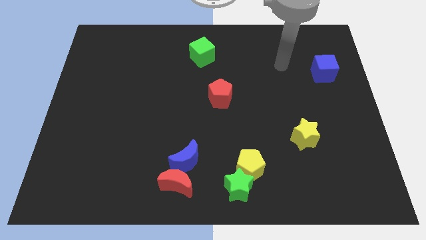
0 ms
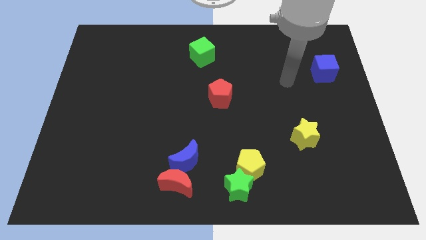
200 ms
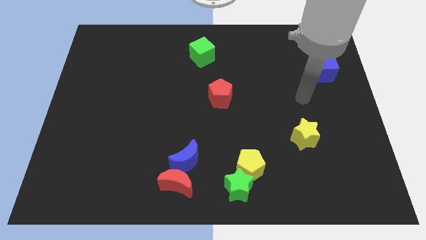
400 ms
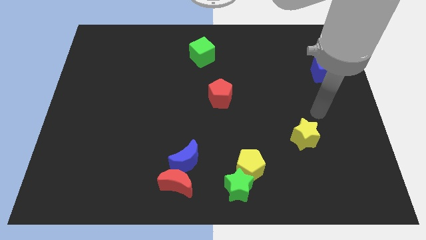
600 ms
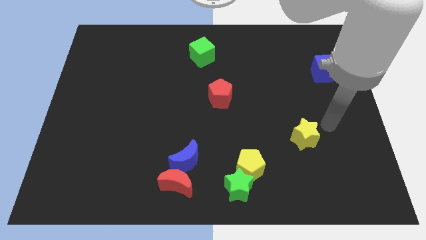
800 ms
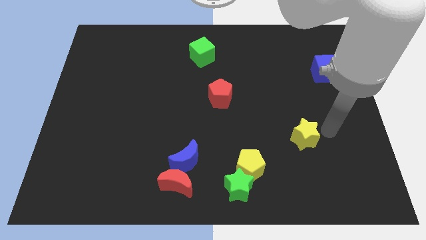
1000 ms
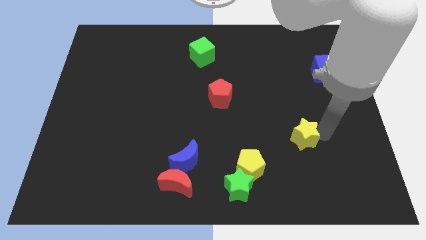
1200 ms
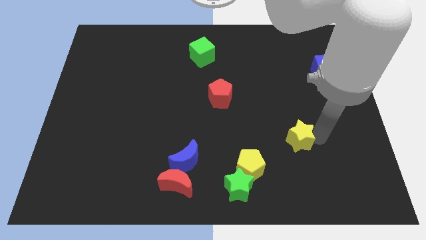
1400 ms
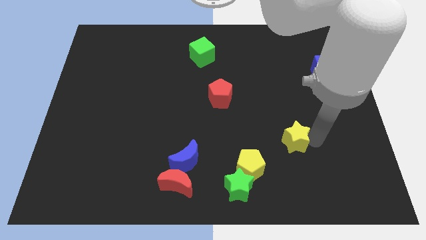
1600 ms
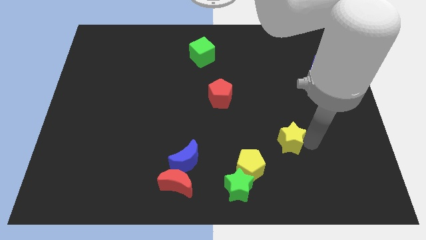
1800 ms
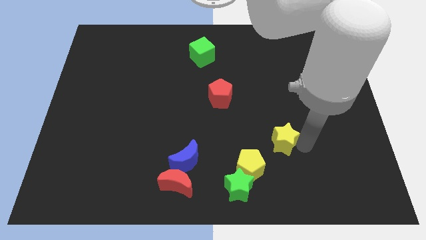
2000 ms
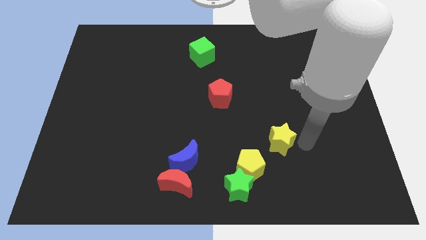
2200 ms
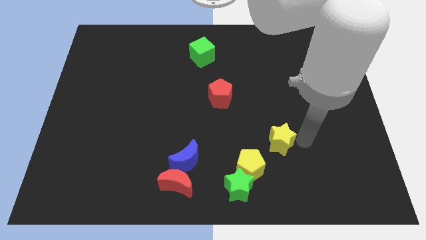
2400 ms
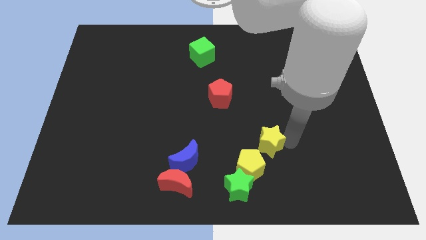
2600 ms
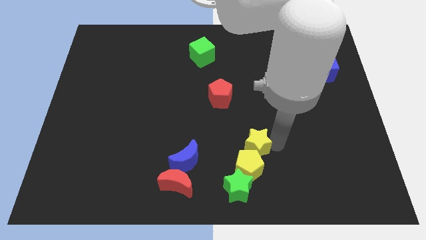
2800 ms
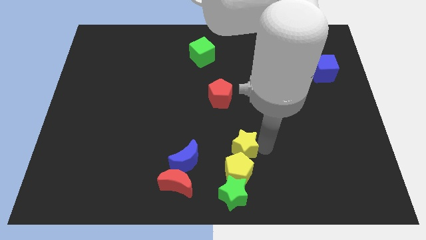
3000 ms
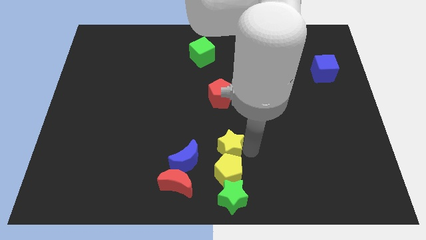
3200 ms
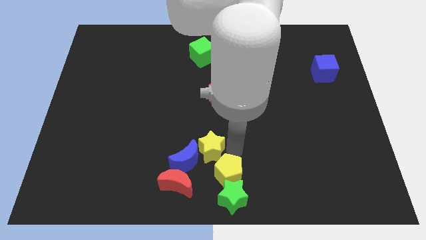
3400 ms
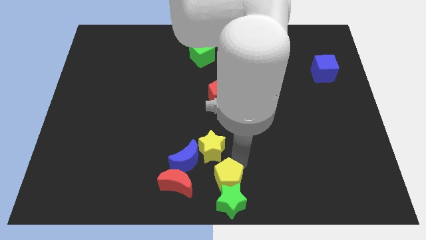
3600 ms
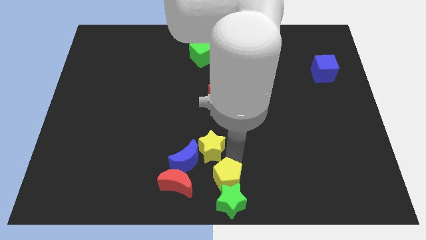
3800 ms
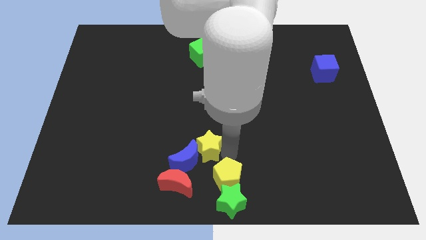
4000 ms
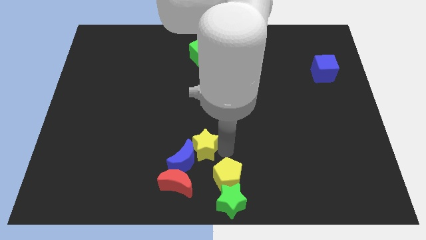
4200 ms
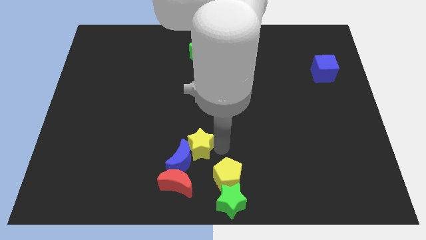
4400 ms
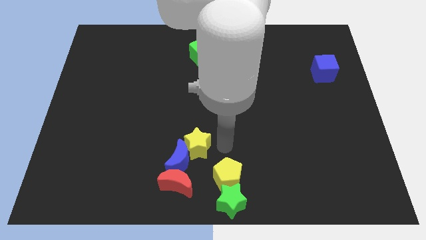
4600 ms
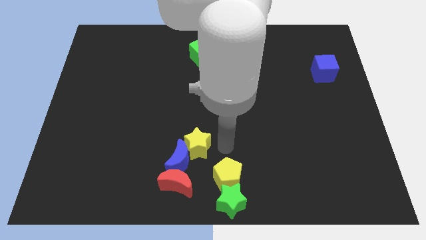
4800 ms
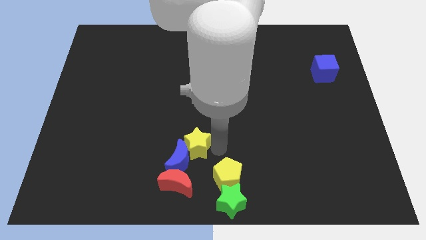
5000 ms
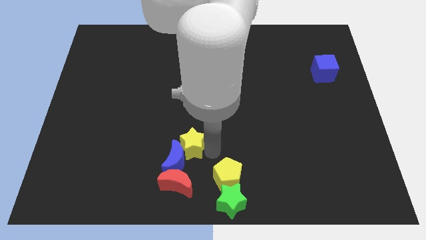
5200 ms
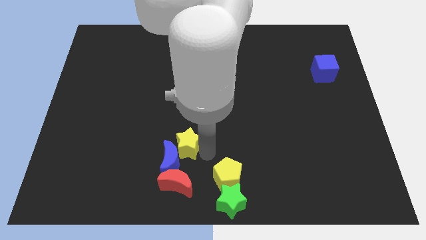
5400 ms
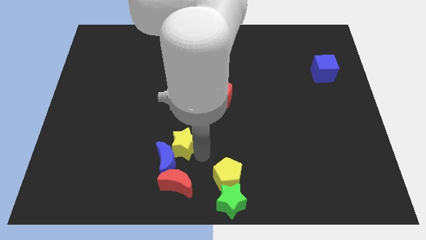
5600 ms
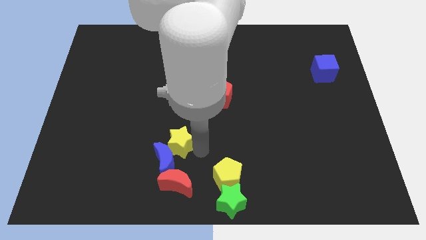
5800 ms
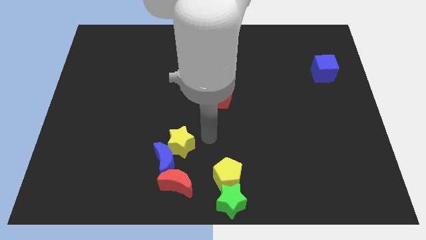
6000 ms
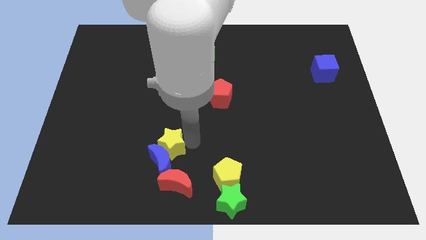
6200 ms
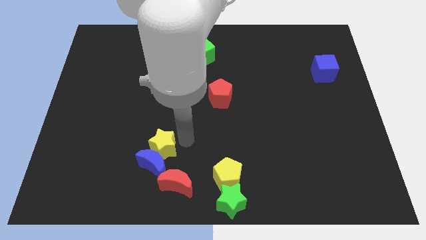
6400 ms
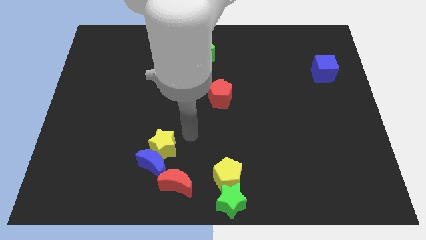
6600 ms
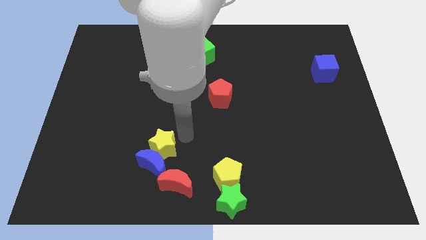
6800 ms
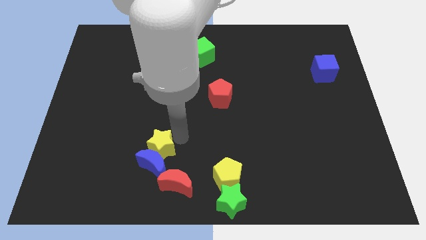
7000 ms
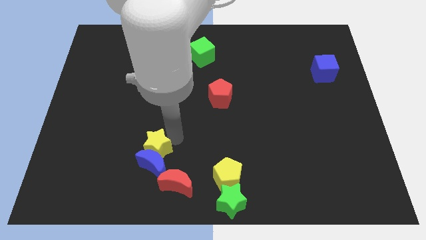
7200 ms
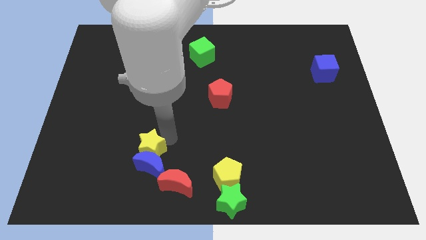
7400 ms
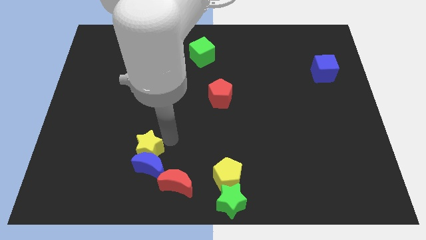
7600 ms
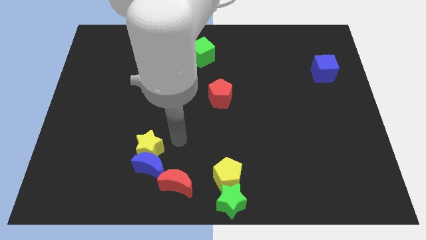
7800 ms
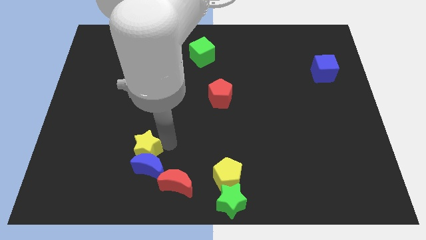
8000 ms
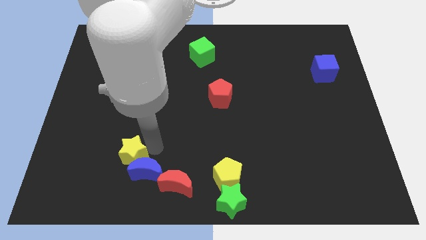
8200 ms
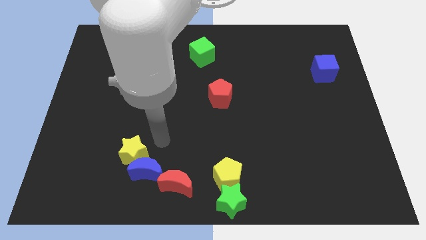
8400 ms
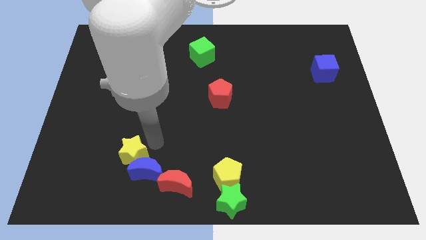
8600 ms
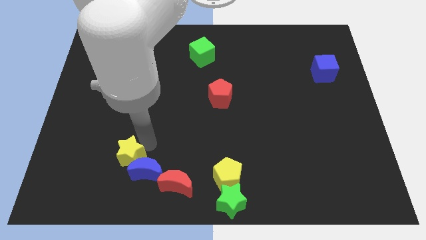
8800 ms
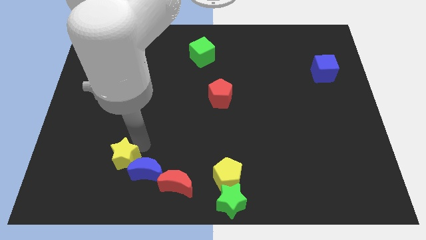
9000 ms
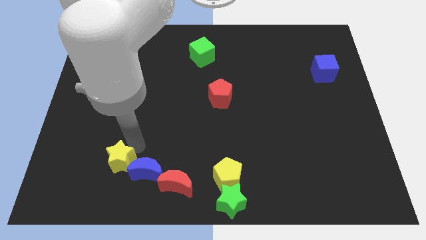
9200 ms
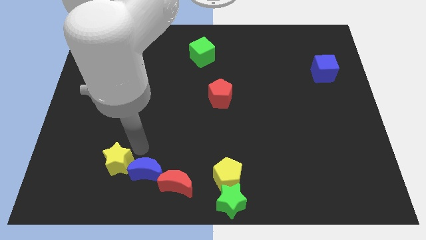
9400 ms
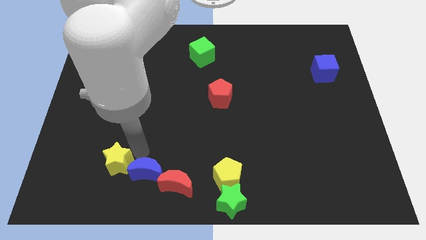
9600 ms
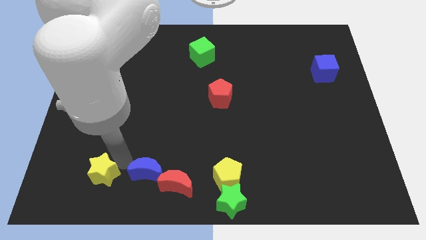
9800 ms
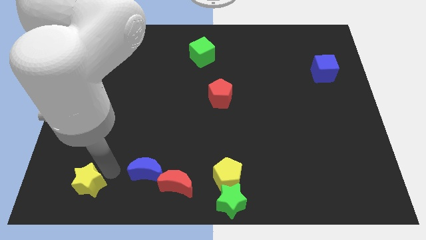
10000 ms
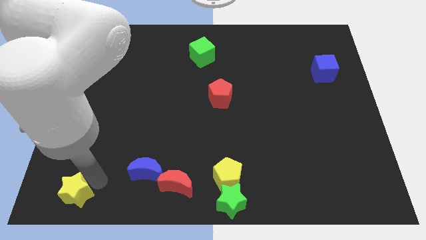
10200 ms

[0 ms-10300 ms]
move the yellow star to the bottom left of the board

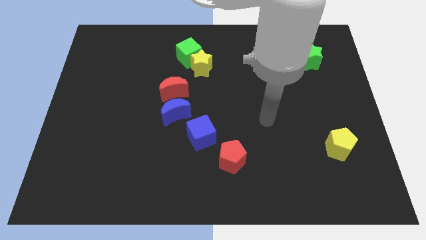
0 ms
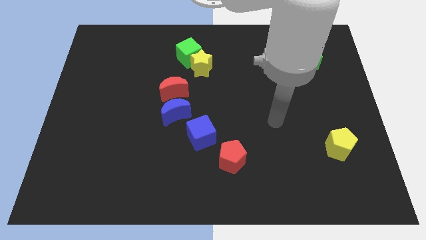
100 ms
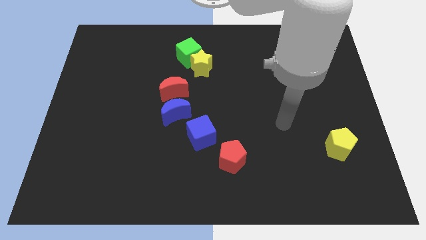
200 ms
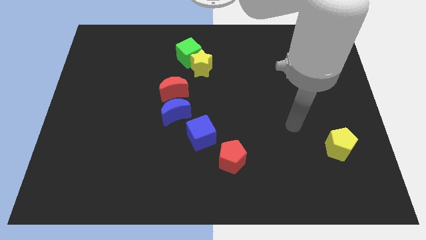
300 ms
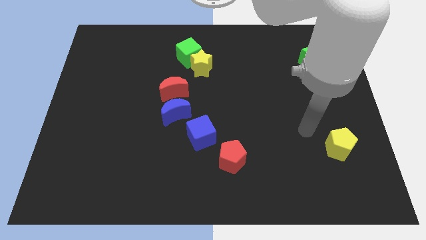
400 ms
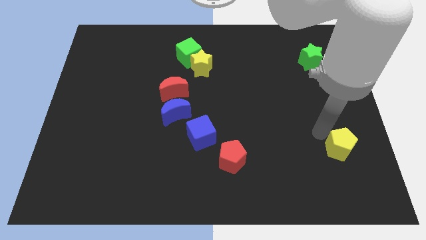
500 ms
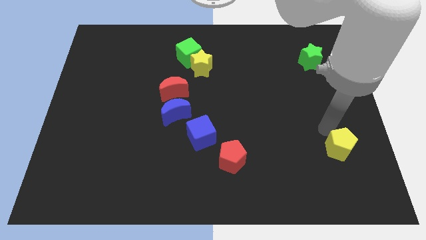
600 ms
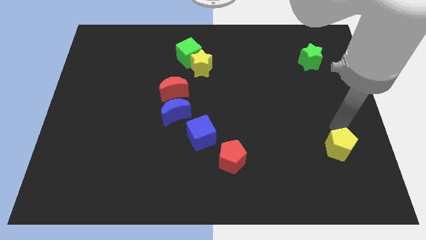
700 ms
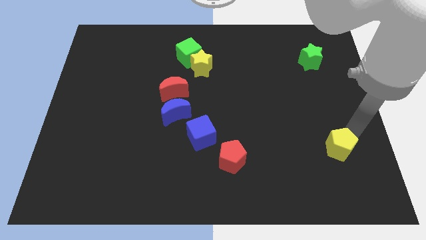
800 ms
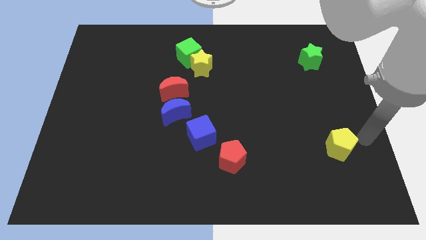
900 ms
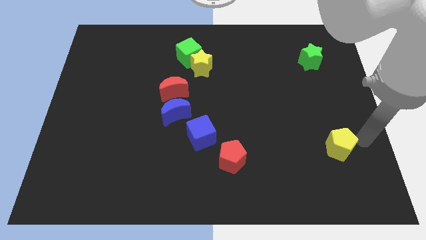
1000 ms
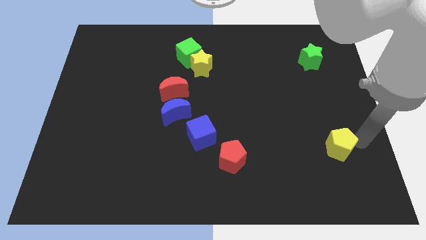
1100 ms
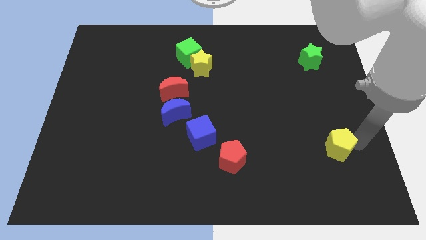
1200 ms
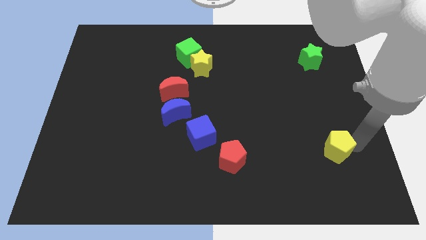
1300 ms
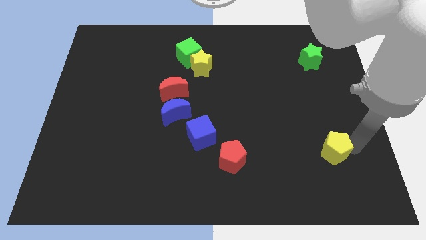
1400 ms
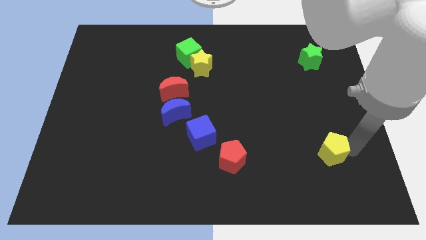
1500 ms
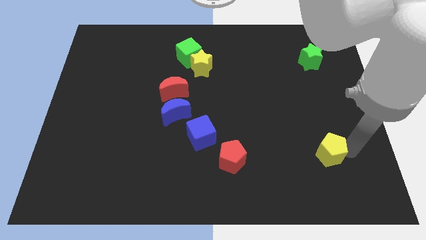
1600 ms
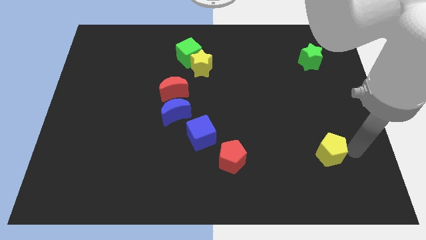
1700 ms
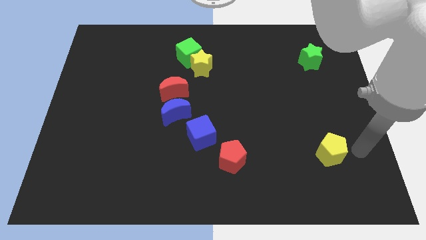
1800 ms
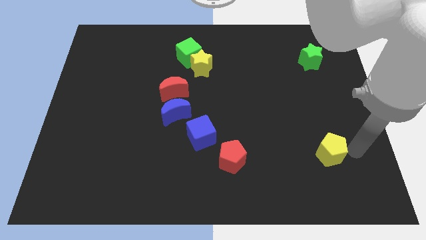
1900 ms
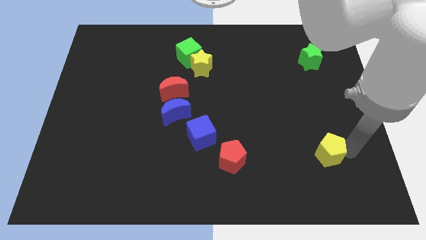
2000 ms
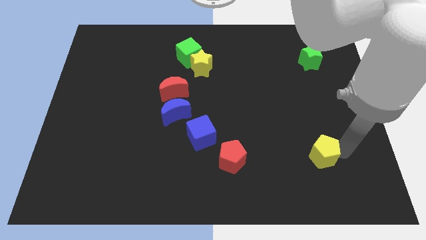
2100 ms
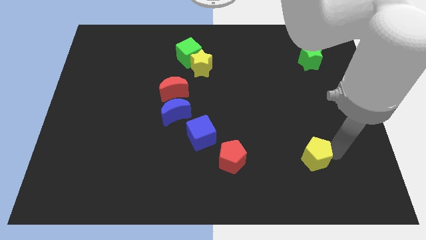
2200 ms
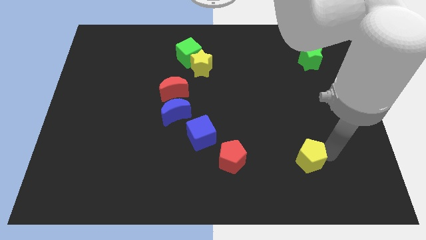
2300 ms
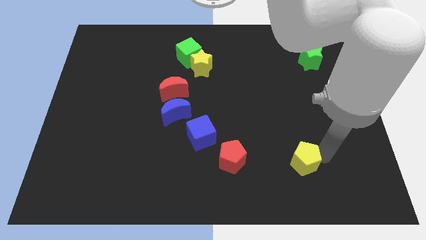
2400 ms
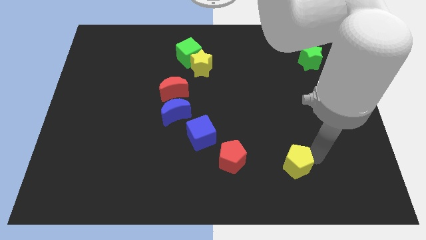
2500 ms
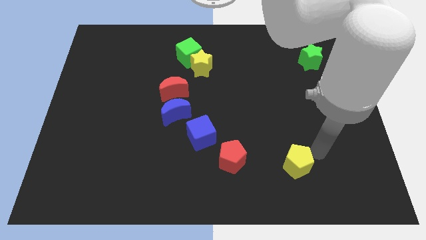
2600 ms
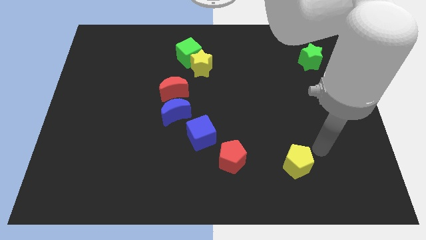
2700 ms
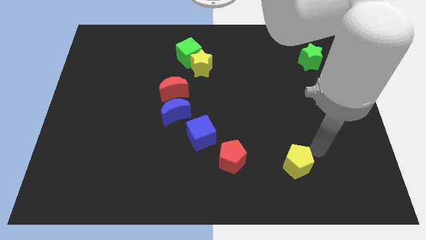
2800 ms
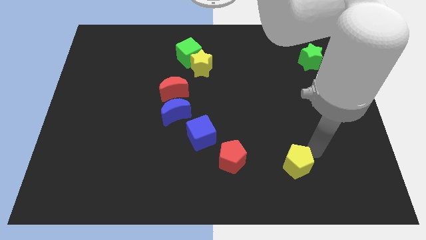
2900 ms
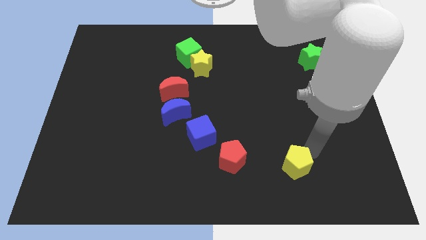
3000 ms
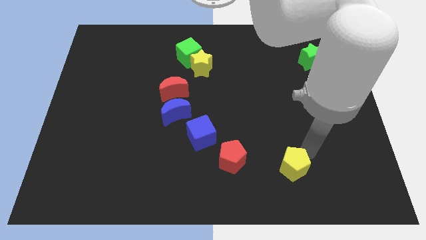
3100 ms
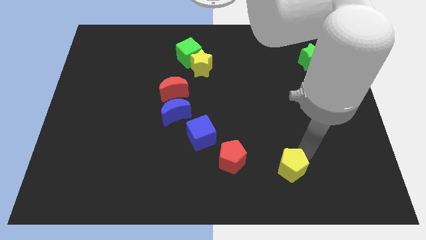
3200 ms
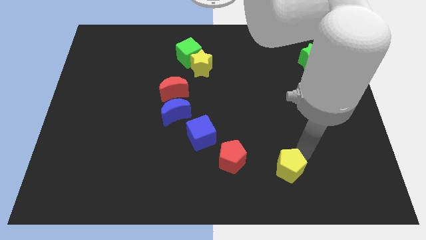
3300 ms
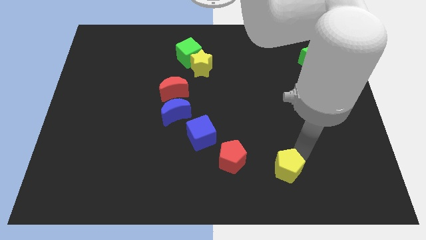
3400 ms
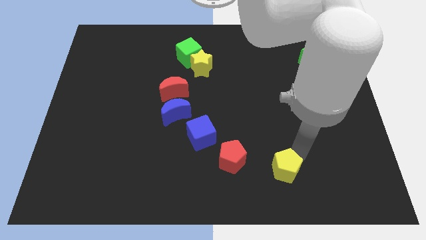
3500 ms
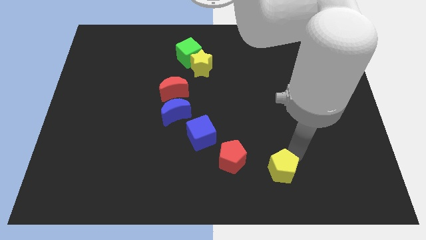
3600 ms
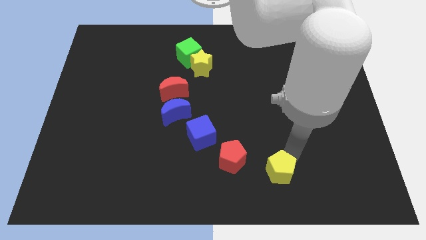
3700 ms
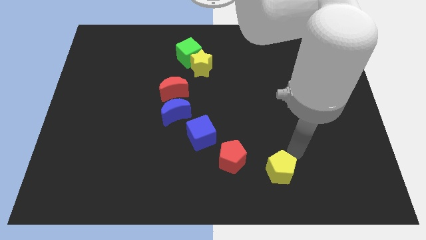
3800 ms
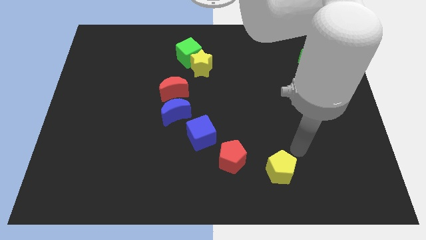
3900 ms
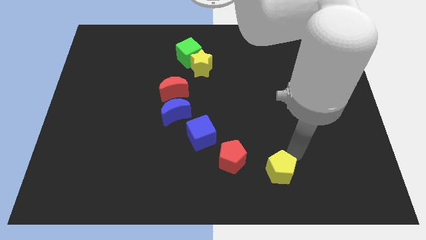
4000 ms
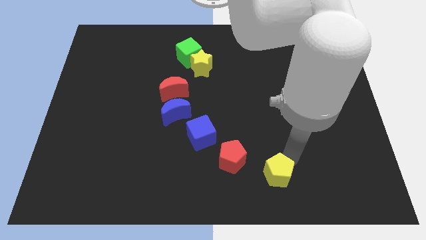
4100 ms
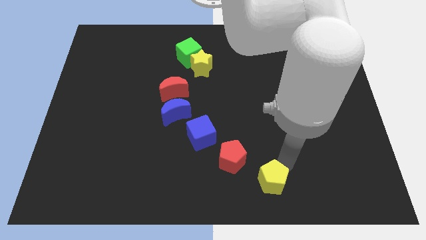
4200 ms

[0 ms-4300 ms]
move the yellow pentagon to the bottom side
